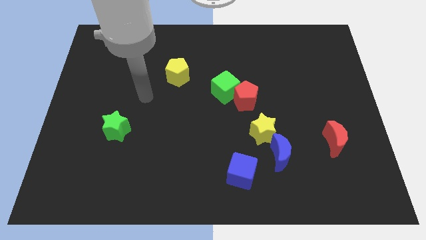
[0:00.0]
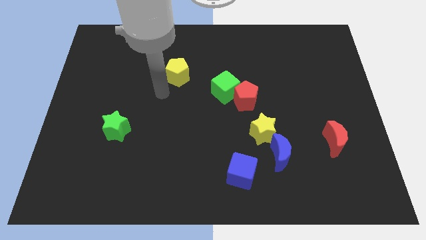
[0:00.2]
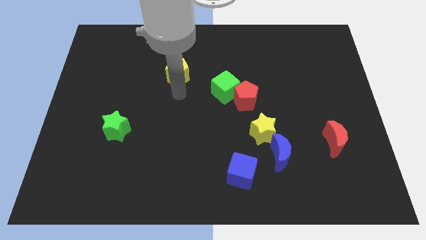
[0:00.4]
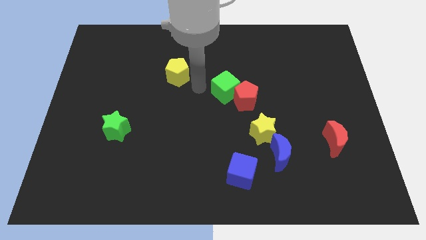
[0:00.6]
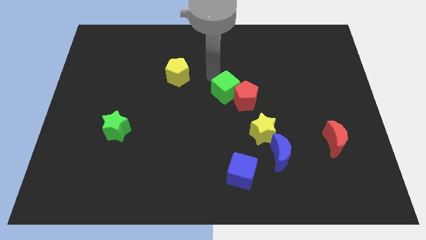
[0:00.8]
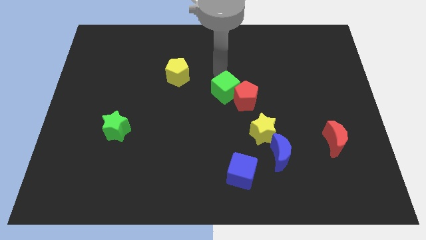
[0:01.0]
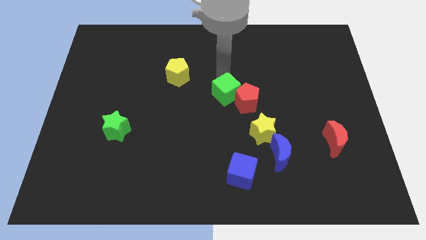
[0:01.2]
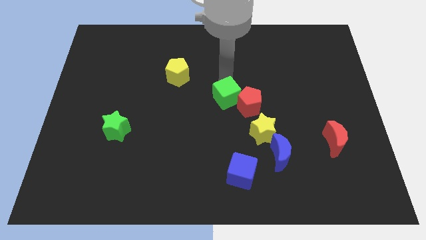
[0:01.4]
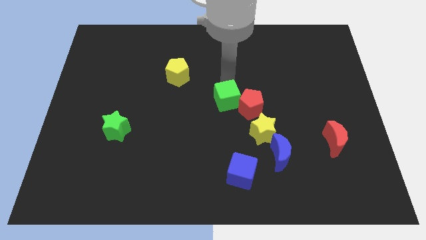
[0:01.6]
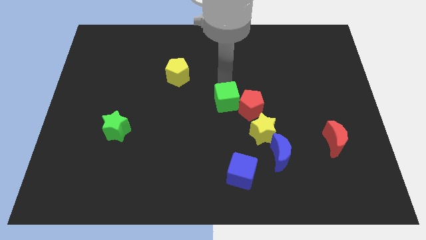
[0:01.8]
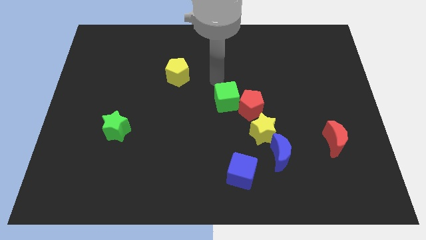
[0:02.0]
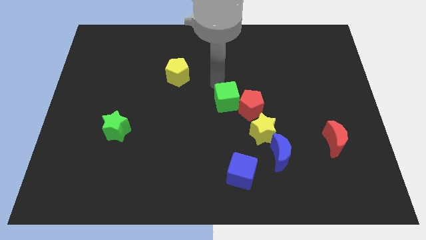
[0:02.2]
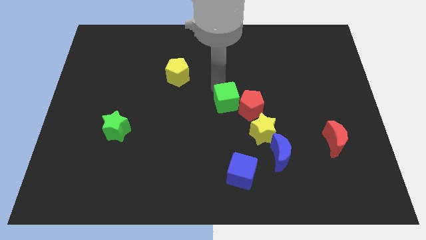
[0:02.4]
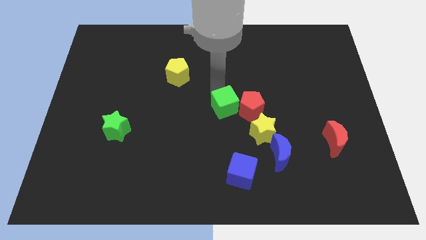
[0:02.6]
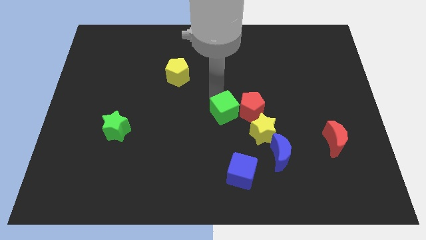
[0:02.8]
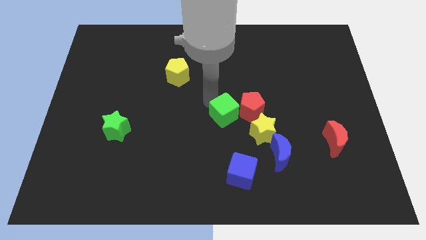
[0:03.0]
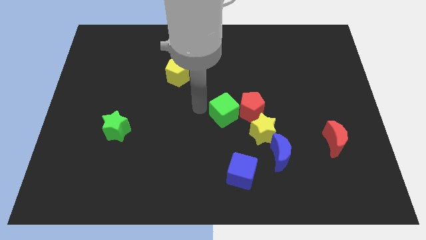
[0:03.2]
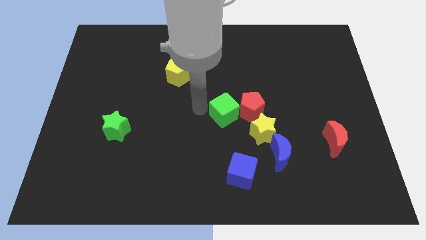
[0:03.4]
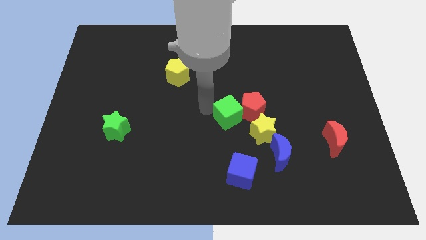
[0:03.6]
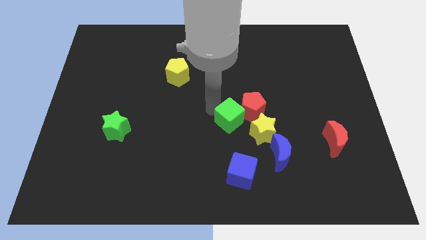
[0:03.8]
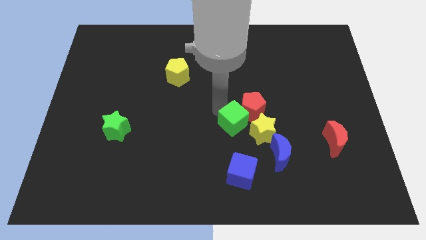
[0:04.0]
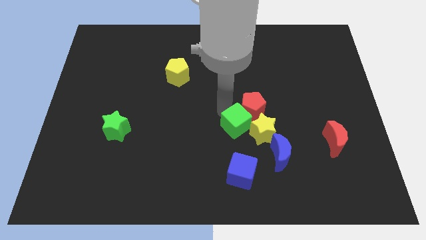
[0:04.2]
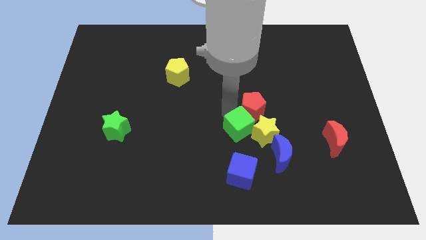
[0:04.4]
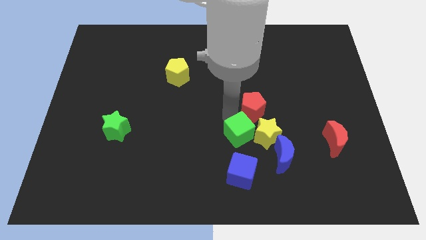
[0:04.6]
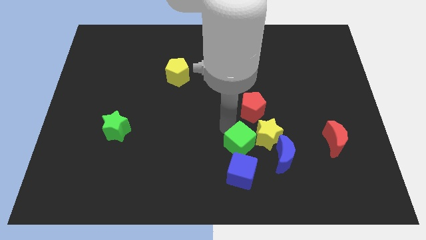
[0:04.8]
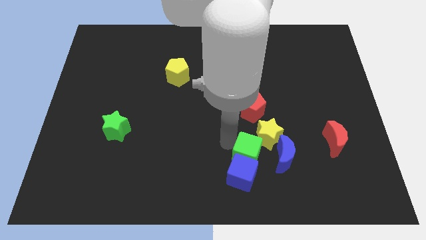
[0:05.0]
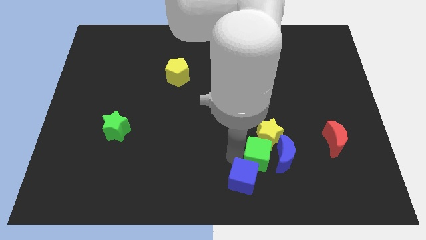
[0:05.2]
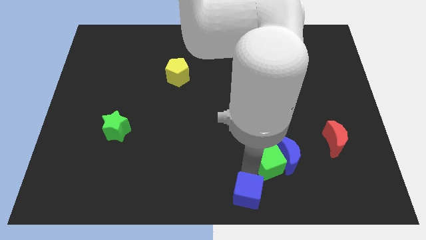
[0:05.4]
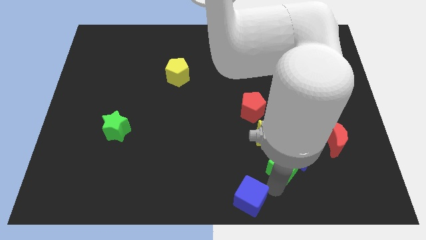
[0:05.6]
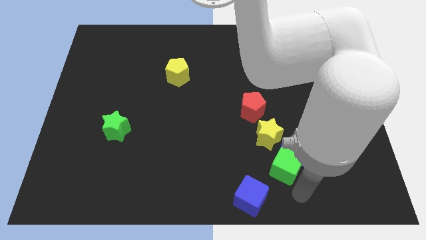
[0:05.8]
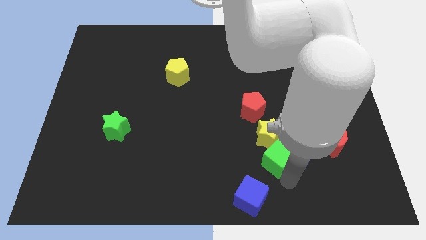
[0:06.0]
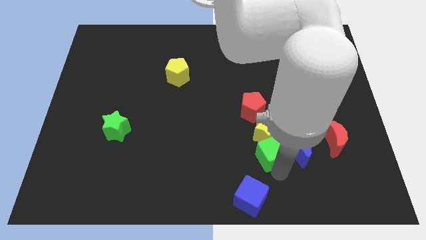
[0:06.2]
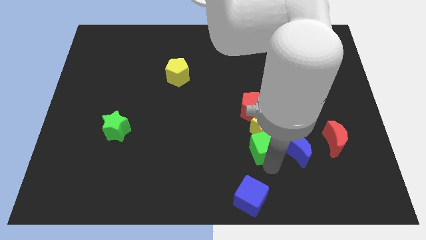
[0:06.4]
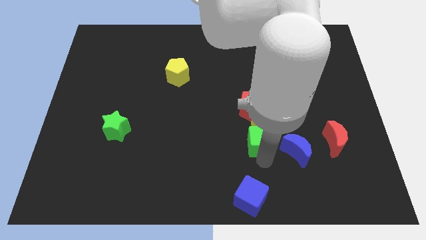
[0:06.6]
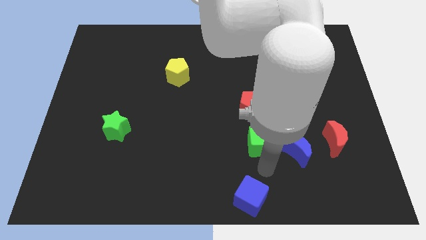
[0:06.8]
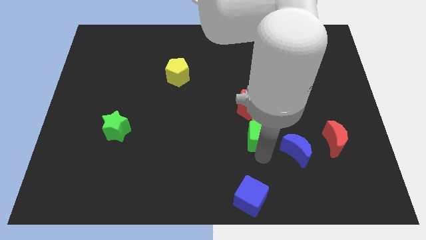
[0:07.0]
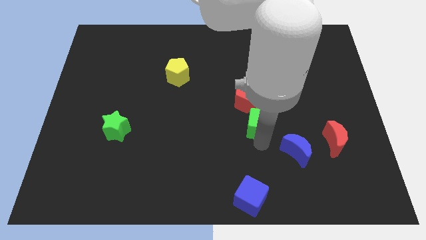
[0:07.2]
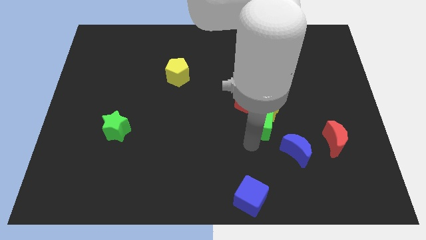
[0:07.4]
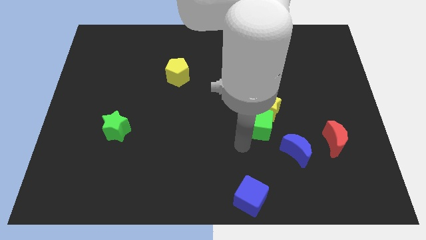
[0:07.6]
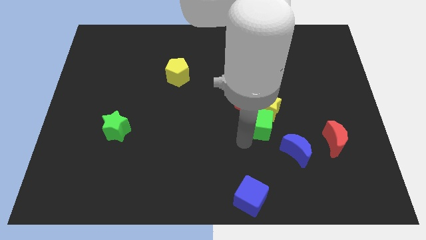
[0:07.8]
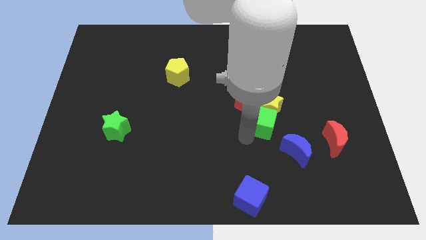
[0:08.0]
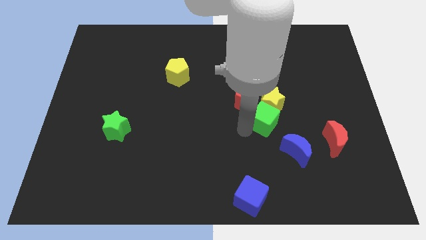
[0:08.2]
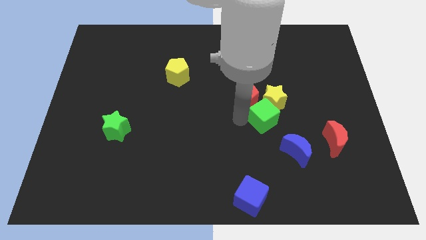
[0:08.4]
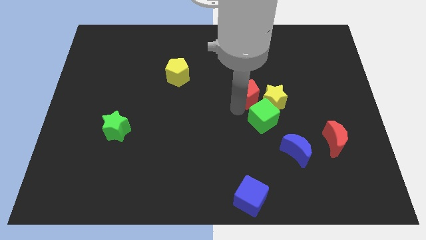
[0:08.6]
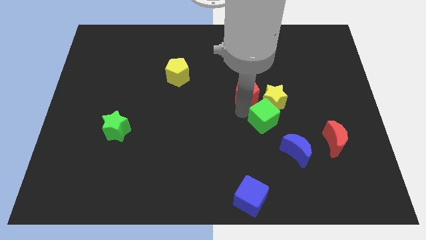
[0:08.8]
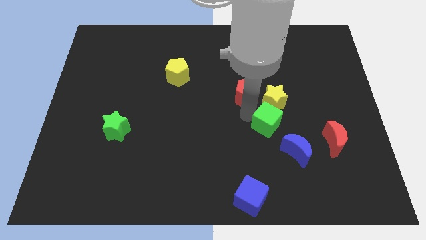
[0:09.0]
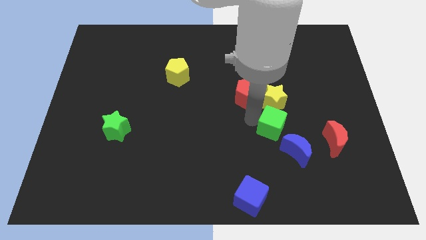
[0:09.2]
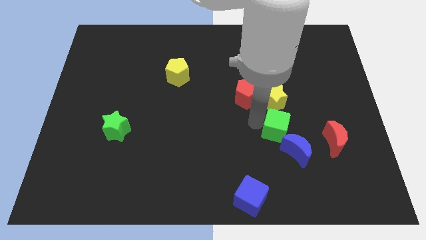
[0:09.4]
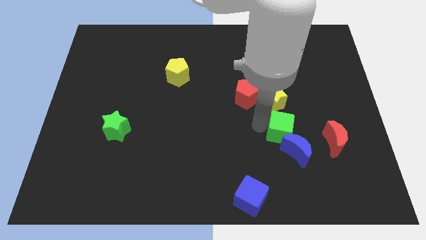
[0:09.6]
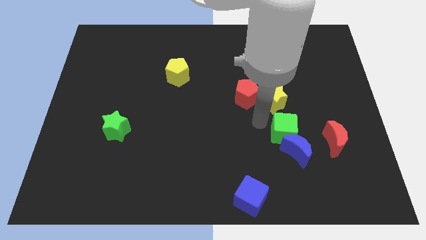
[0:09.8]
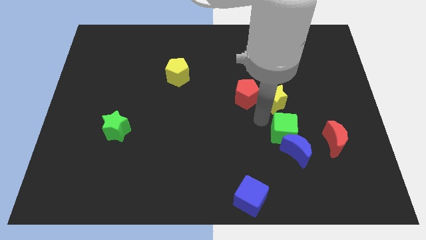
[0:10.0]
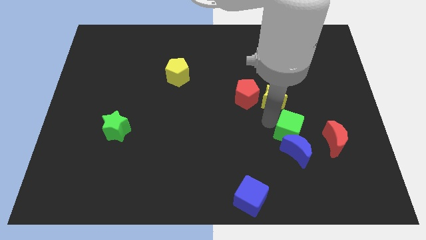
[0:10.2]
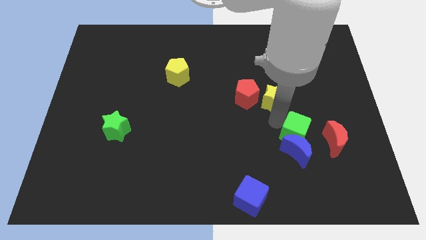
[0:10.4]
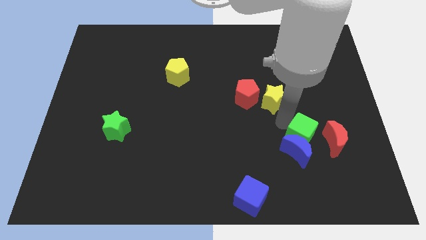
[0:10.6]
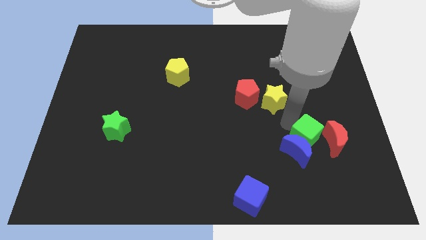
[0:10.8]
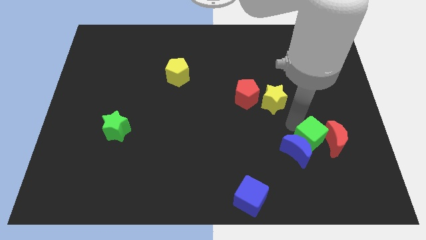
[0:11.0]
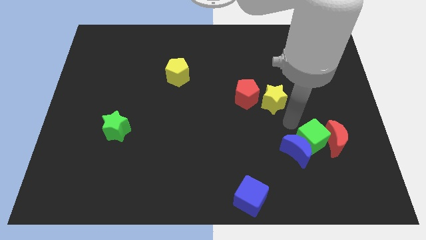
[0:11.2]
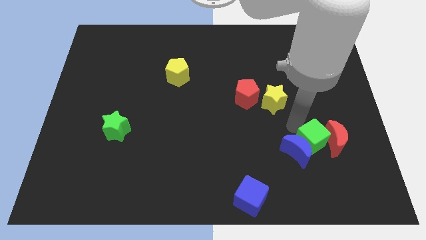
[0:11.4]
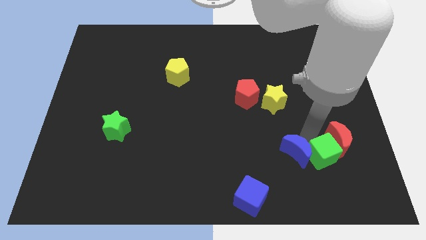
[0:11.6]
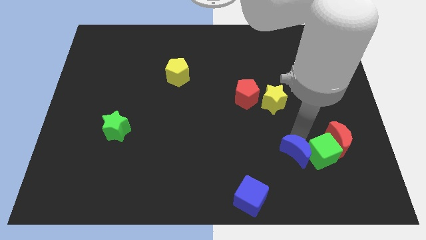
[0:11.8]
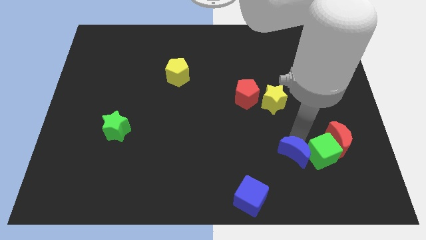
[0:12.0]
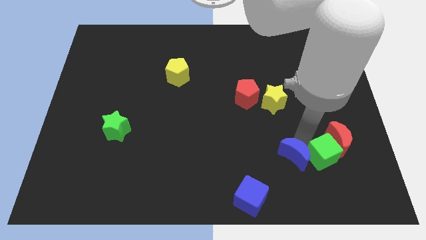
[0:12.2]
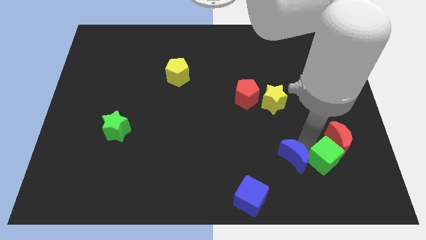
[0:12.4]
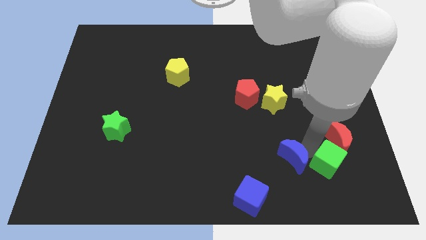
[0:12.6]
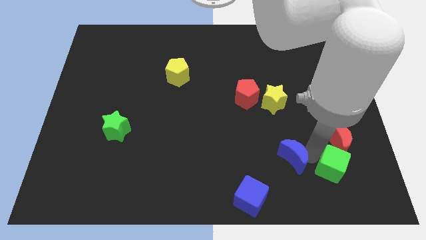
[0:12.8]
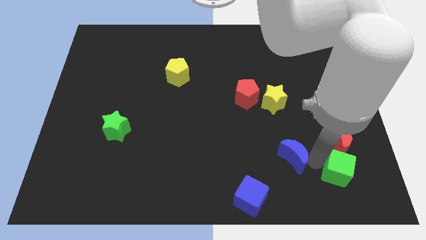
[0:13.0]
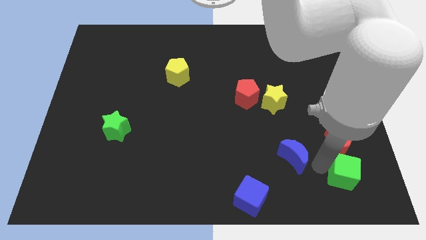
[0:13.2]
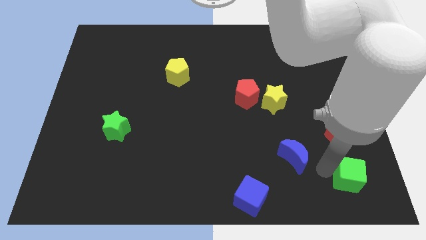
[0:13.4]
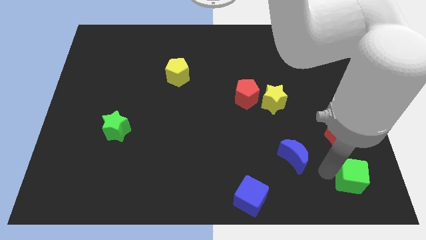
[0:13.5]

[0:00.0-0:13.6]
slide the green cube to the bottom right corner
